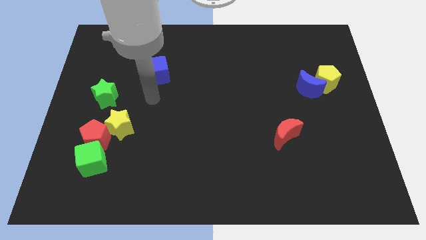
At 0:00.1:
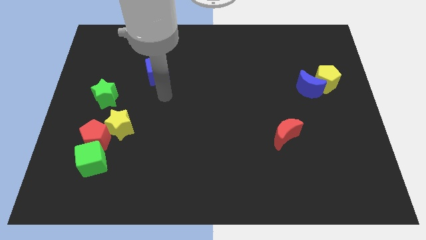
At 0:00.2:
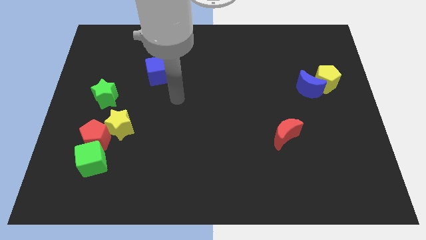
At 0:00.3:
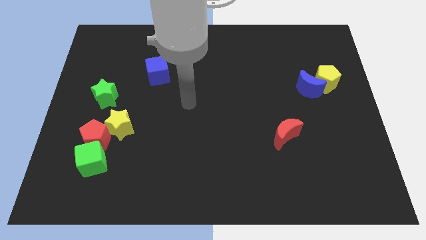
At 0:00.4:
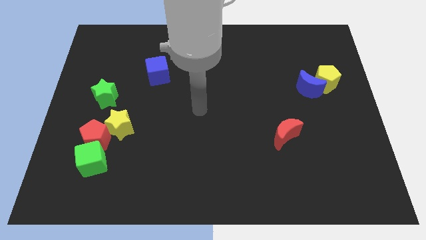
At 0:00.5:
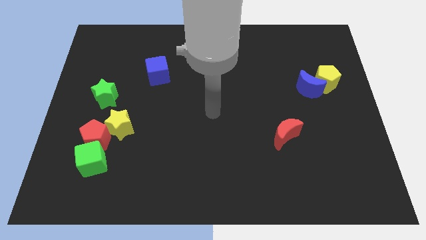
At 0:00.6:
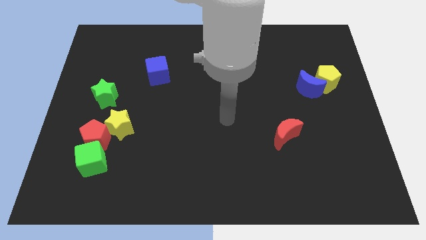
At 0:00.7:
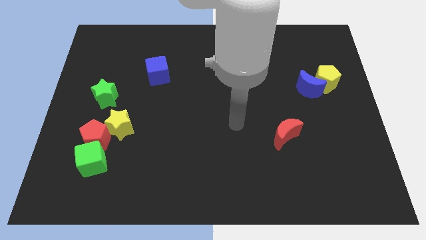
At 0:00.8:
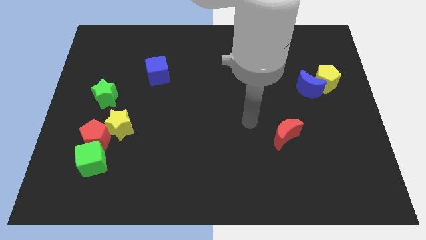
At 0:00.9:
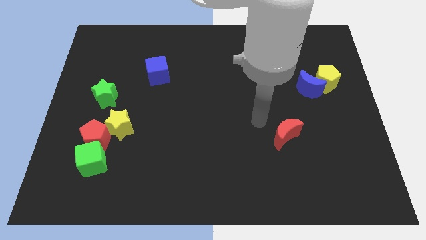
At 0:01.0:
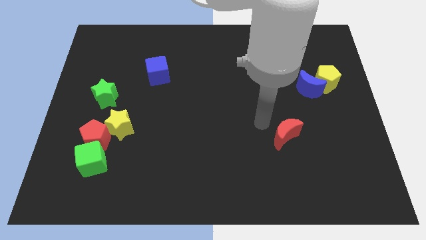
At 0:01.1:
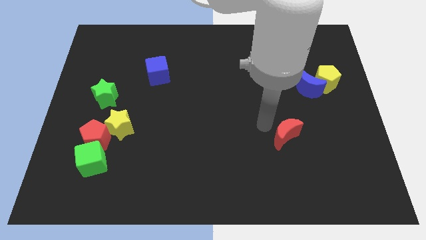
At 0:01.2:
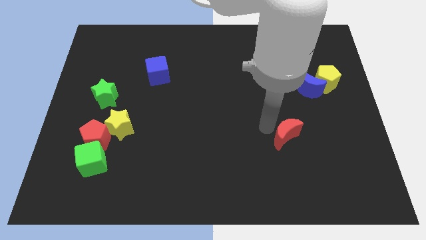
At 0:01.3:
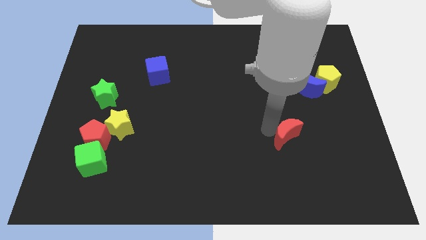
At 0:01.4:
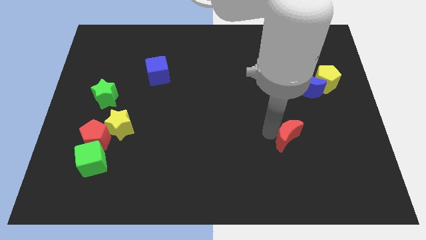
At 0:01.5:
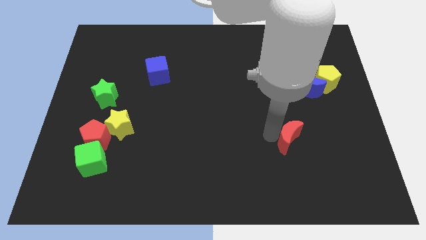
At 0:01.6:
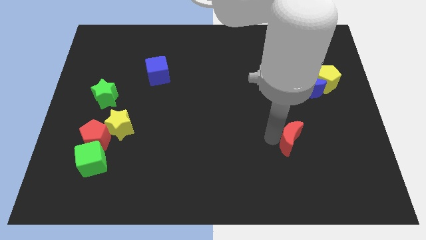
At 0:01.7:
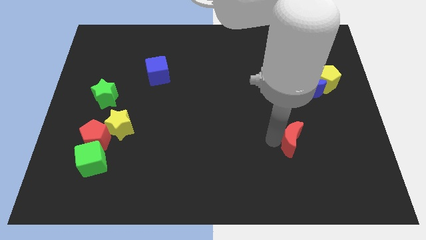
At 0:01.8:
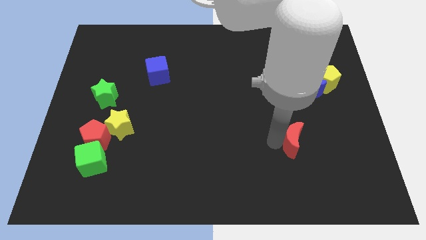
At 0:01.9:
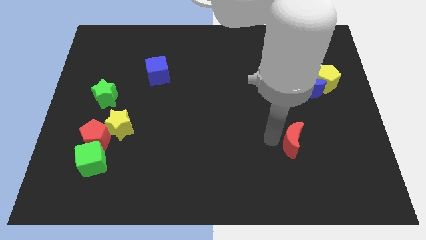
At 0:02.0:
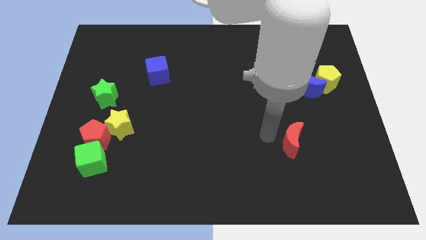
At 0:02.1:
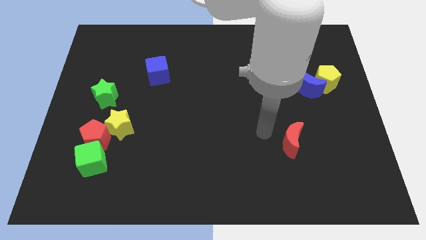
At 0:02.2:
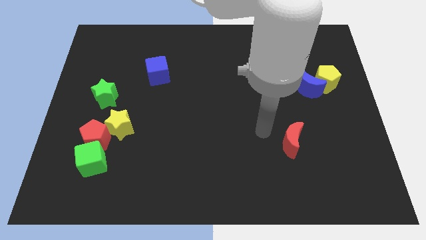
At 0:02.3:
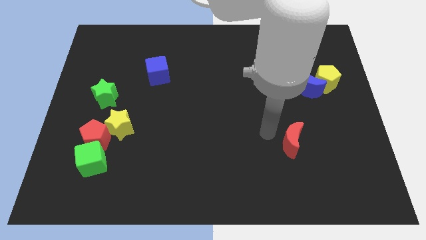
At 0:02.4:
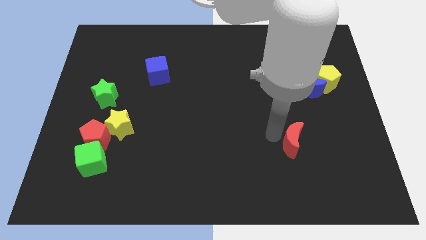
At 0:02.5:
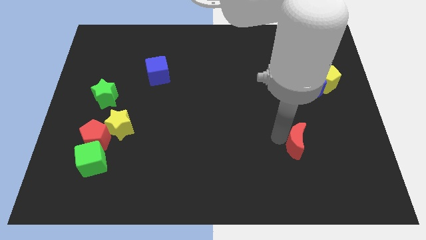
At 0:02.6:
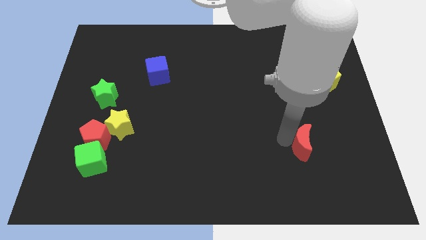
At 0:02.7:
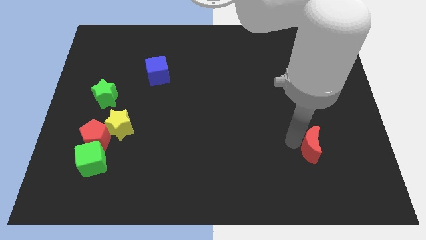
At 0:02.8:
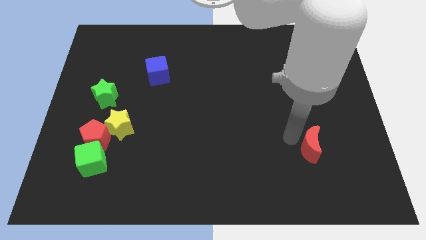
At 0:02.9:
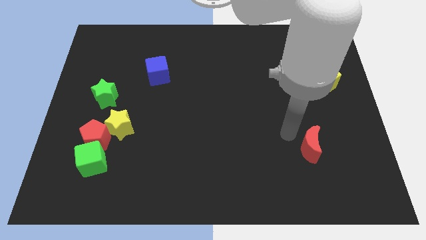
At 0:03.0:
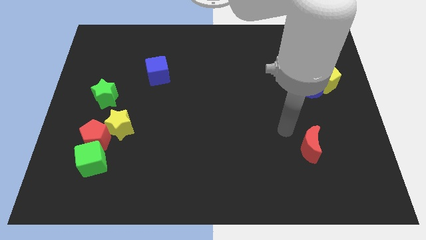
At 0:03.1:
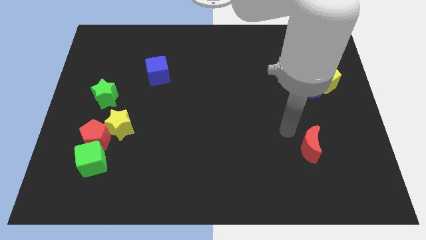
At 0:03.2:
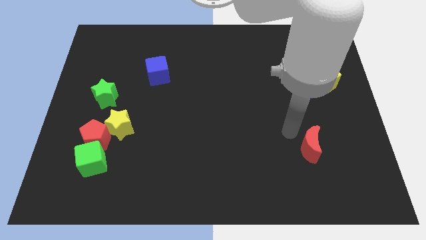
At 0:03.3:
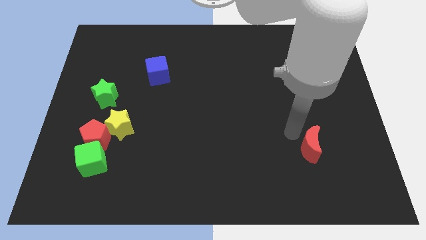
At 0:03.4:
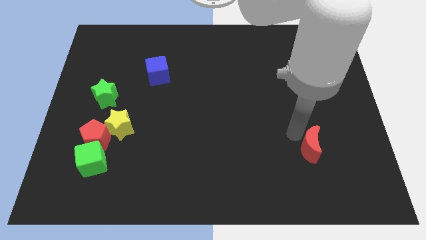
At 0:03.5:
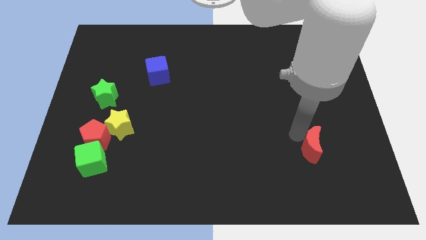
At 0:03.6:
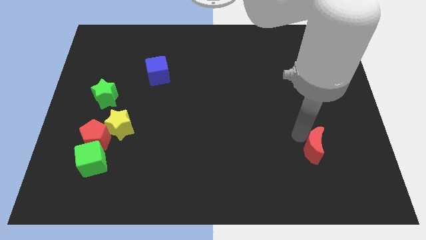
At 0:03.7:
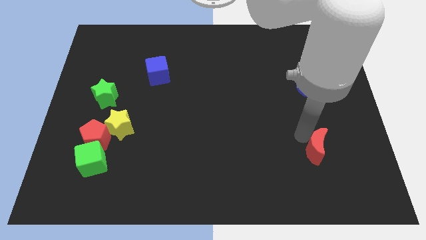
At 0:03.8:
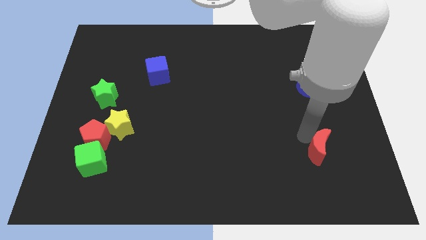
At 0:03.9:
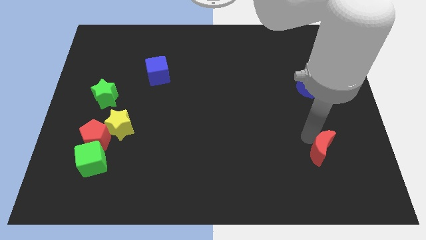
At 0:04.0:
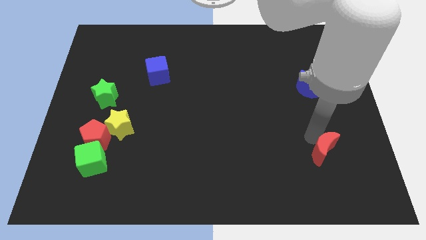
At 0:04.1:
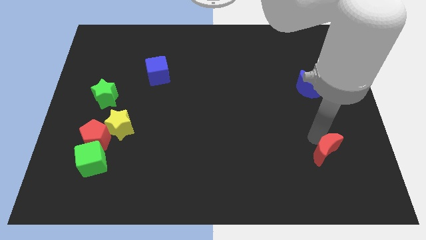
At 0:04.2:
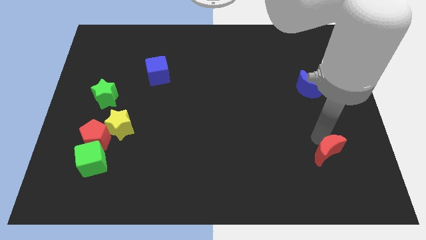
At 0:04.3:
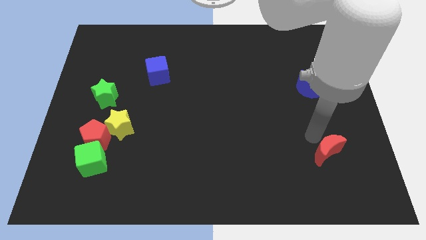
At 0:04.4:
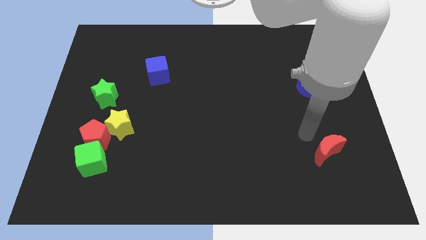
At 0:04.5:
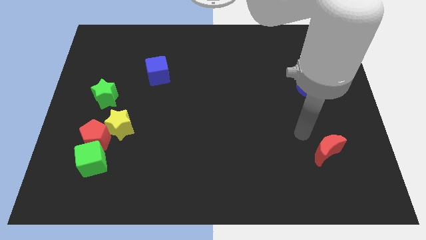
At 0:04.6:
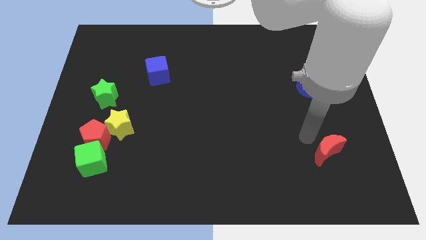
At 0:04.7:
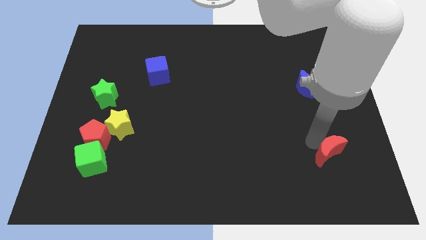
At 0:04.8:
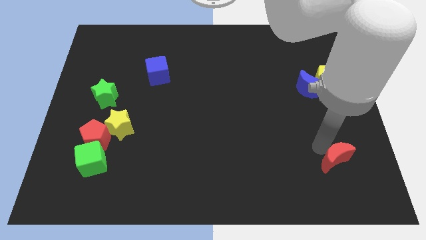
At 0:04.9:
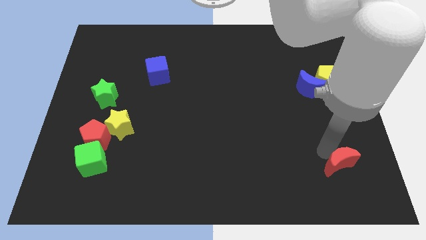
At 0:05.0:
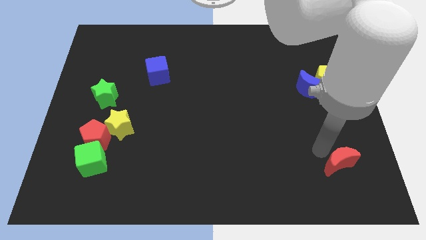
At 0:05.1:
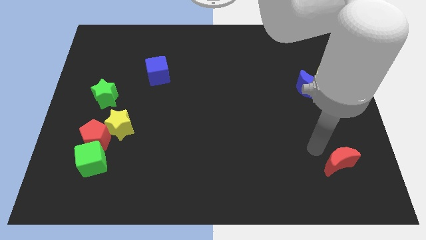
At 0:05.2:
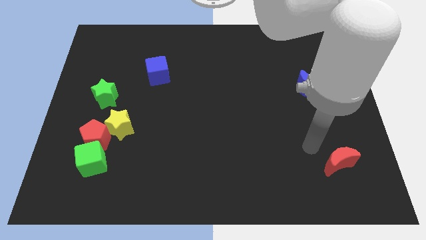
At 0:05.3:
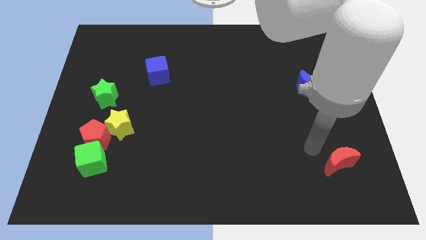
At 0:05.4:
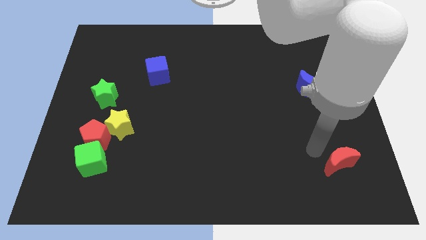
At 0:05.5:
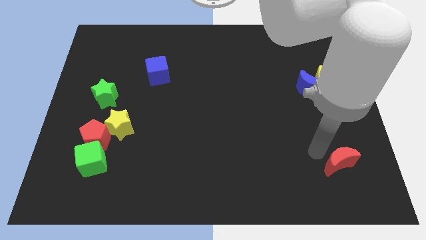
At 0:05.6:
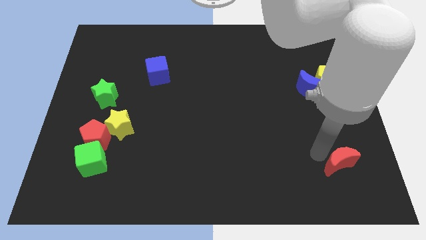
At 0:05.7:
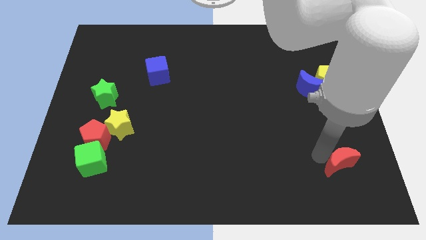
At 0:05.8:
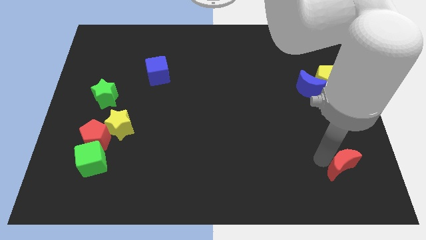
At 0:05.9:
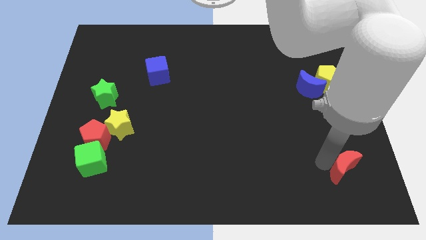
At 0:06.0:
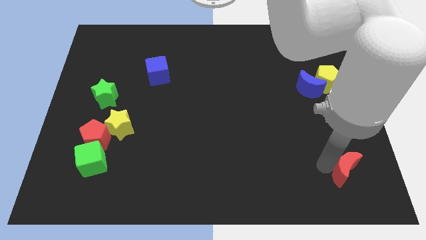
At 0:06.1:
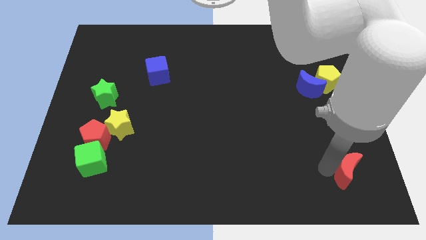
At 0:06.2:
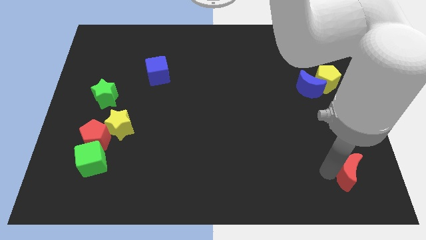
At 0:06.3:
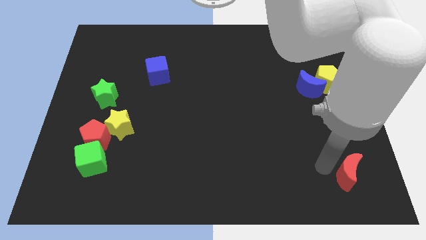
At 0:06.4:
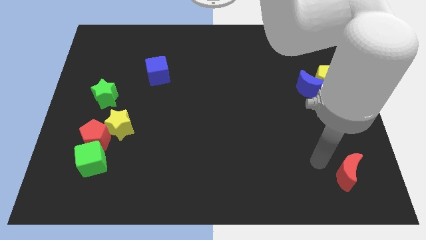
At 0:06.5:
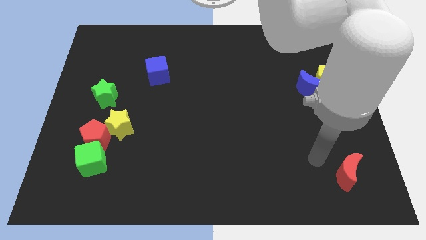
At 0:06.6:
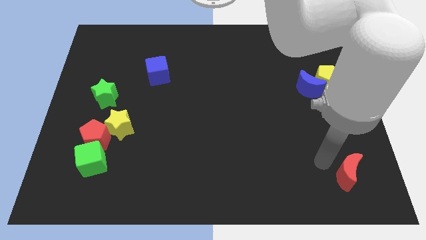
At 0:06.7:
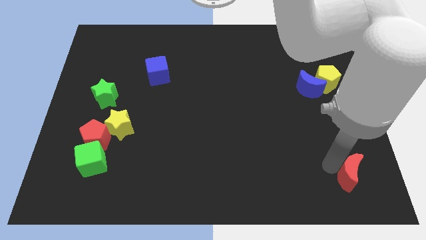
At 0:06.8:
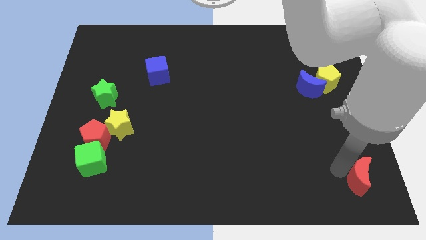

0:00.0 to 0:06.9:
push the red moon to the bottom right corner
